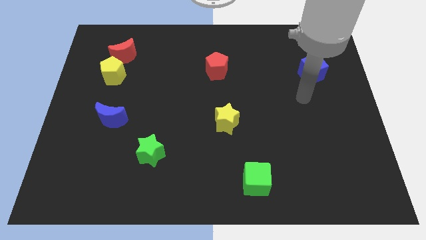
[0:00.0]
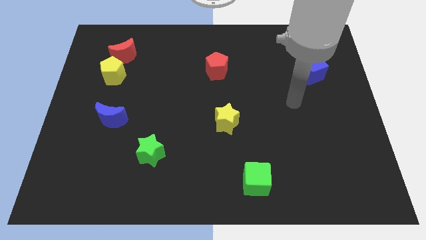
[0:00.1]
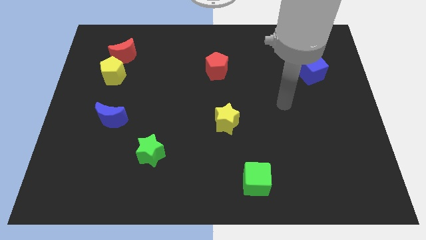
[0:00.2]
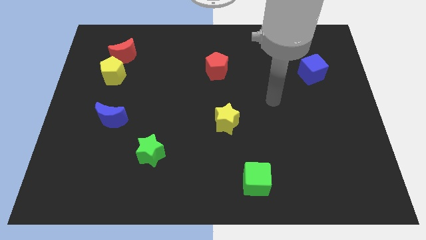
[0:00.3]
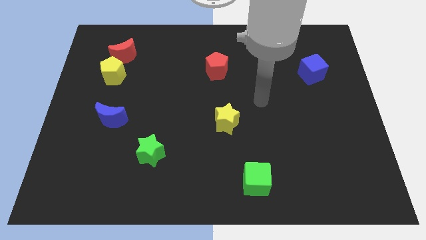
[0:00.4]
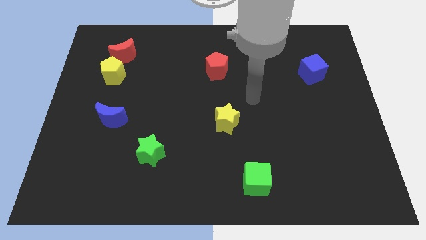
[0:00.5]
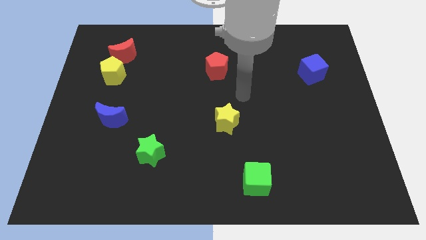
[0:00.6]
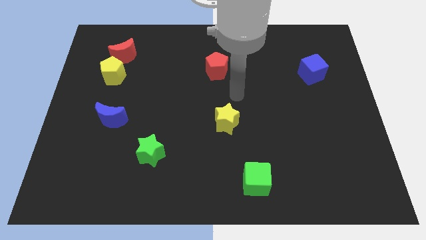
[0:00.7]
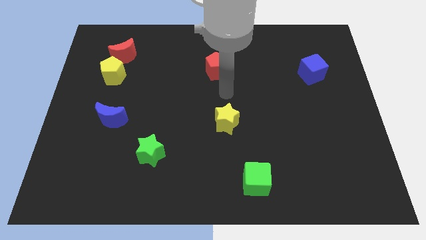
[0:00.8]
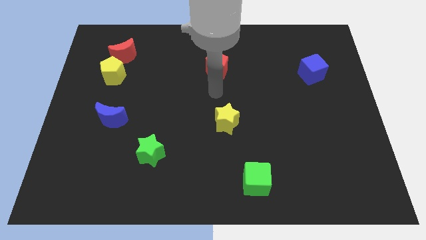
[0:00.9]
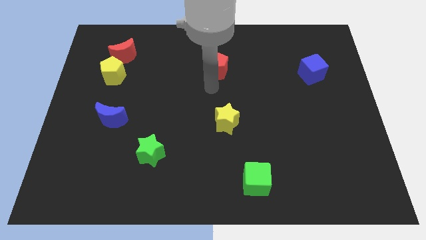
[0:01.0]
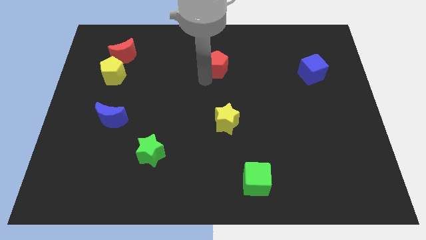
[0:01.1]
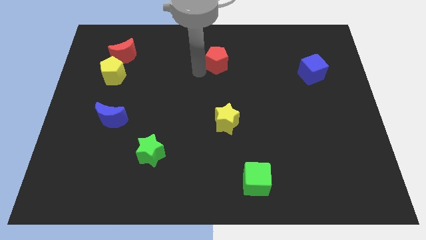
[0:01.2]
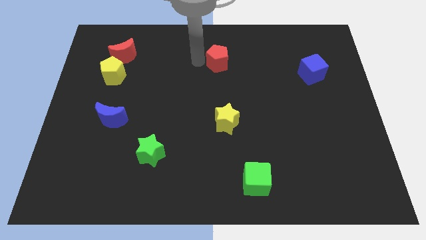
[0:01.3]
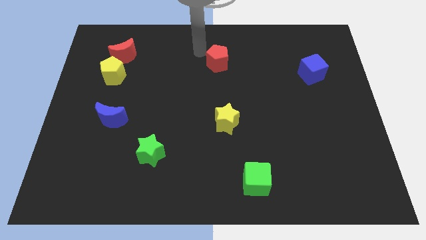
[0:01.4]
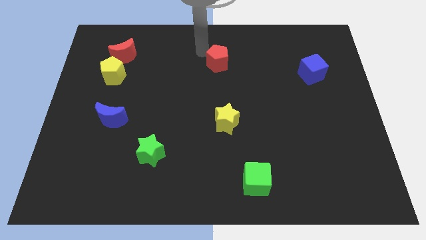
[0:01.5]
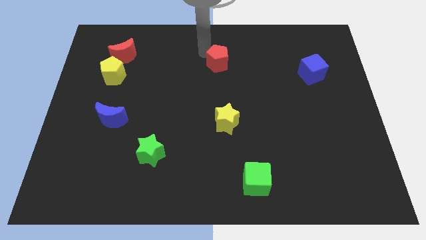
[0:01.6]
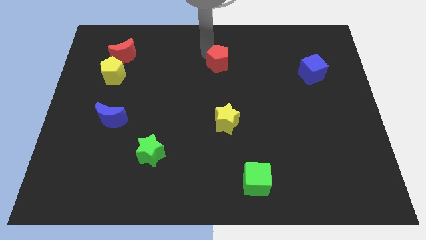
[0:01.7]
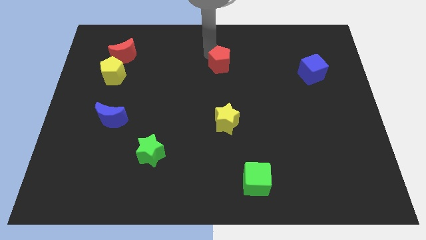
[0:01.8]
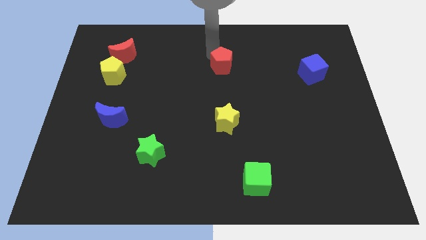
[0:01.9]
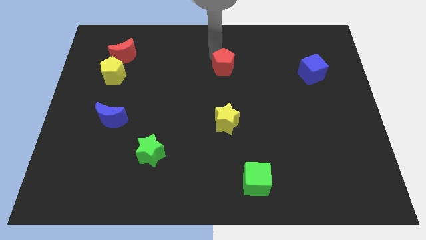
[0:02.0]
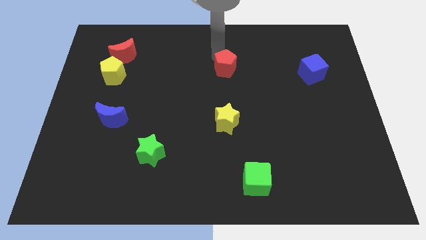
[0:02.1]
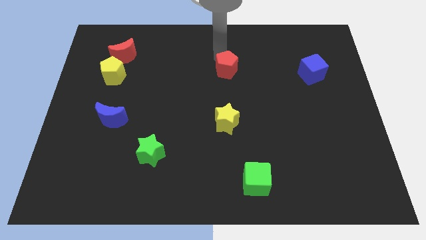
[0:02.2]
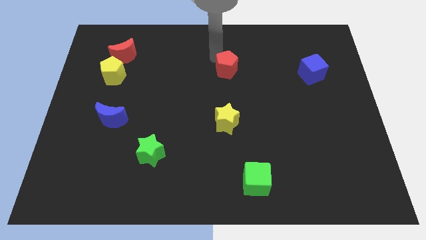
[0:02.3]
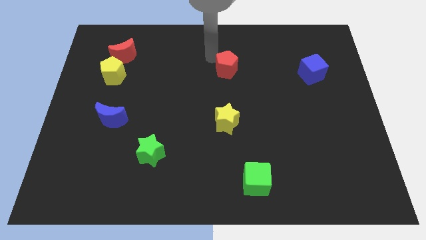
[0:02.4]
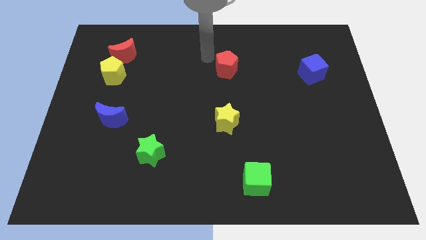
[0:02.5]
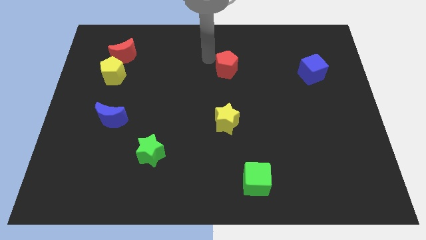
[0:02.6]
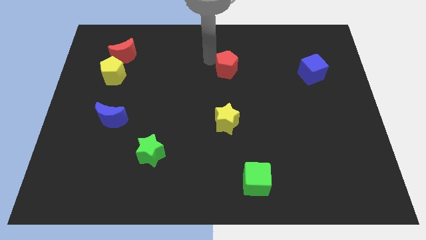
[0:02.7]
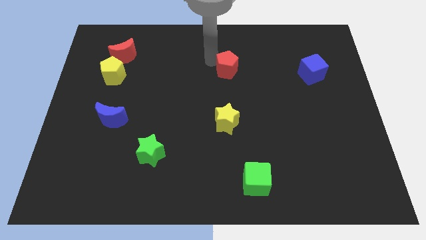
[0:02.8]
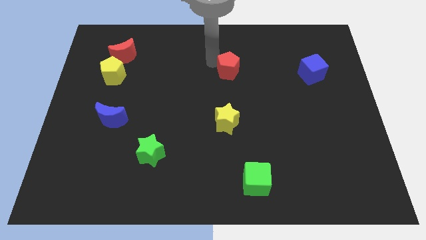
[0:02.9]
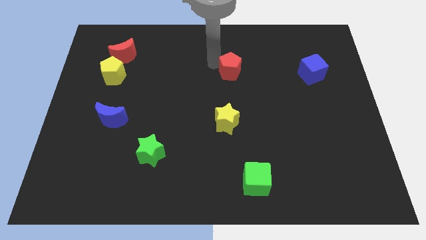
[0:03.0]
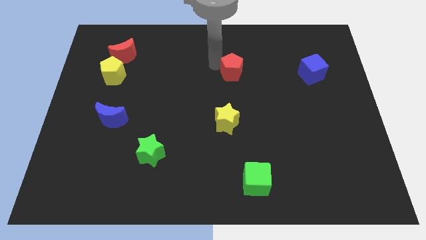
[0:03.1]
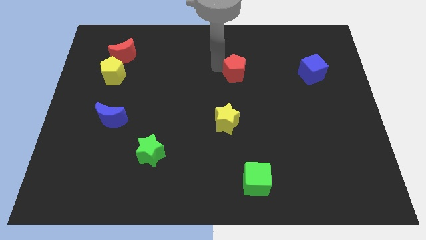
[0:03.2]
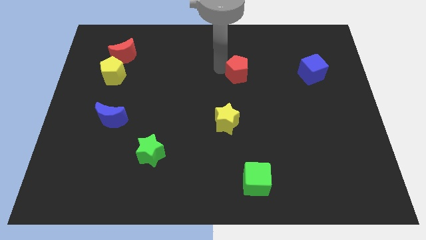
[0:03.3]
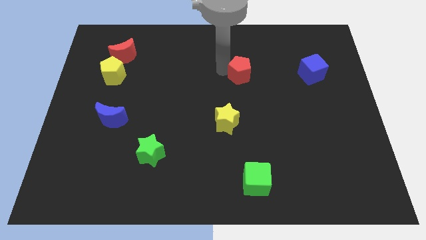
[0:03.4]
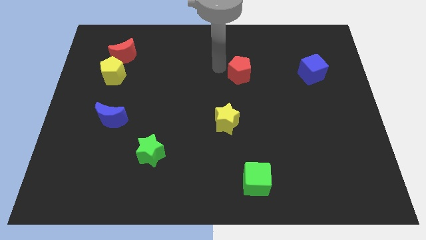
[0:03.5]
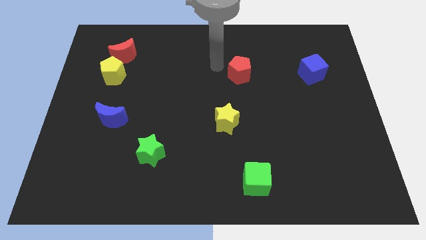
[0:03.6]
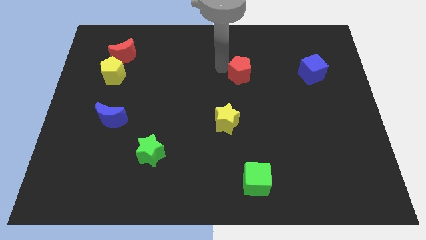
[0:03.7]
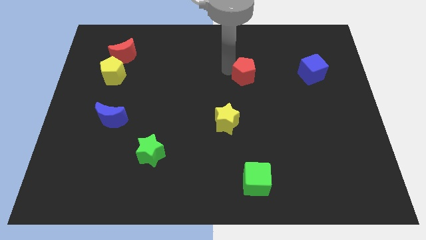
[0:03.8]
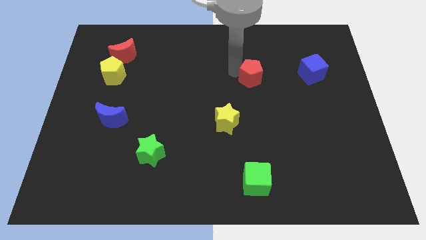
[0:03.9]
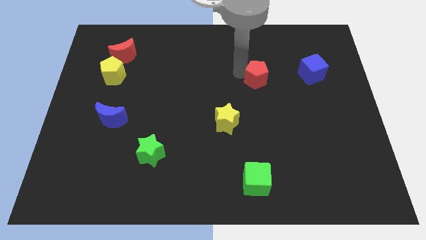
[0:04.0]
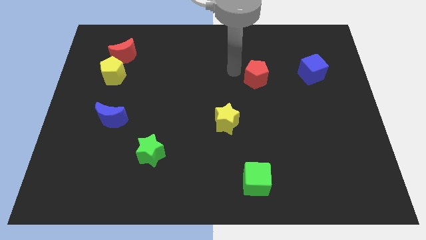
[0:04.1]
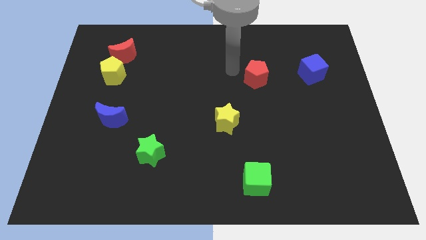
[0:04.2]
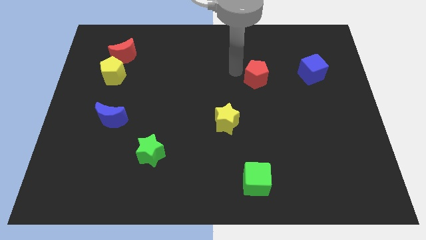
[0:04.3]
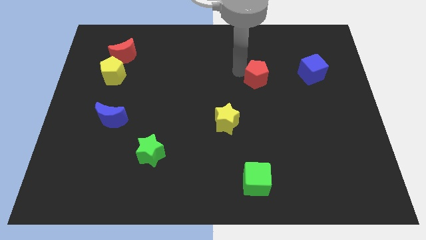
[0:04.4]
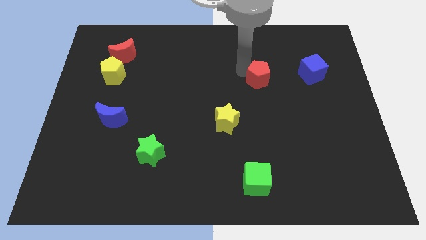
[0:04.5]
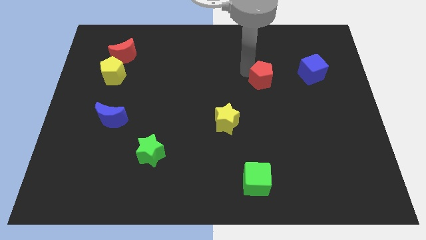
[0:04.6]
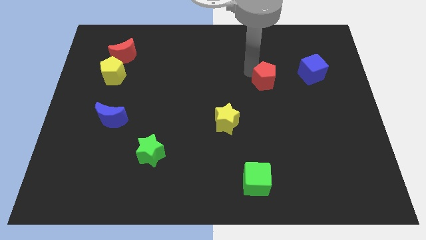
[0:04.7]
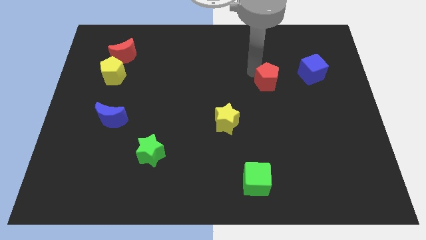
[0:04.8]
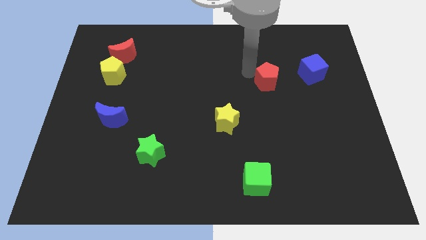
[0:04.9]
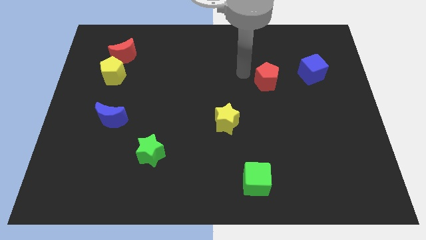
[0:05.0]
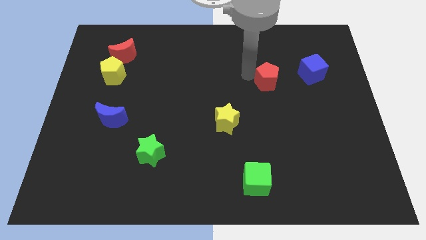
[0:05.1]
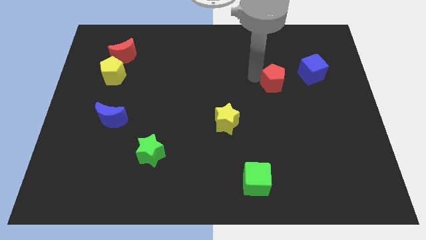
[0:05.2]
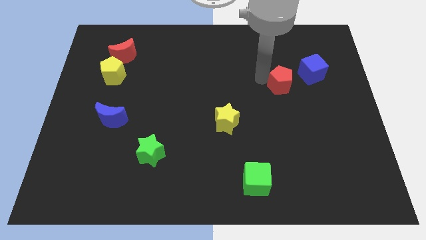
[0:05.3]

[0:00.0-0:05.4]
move the red pentagon to the bottom left side of the blue cube

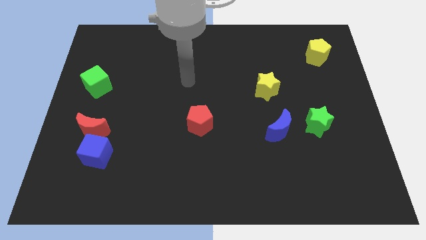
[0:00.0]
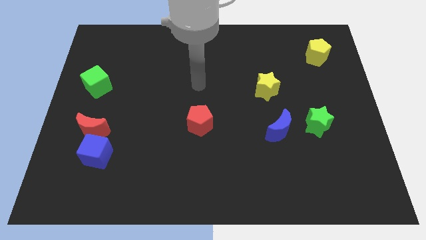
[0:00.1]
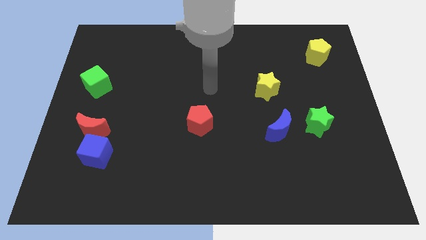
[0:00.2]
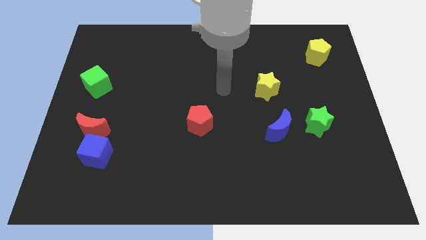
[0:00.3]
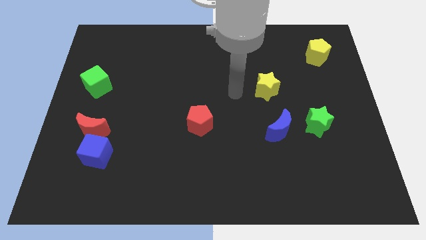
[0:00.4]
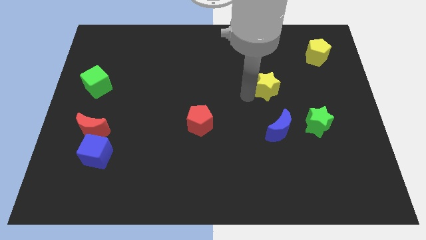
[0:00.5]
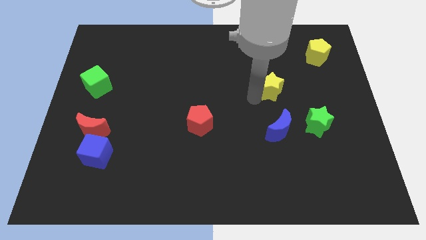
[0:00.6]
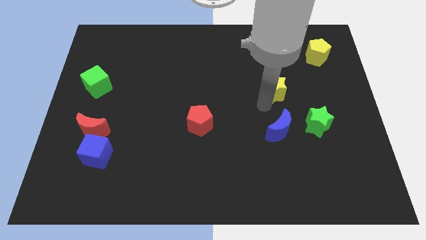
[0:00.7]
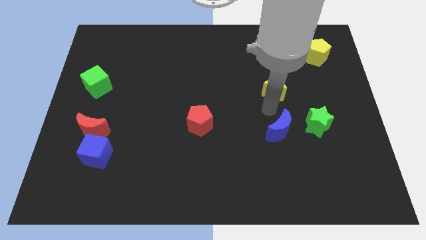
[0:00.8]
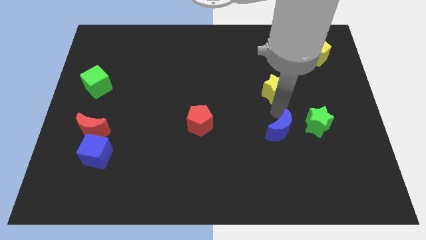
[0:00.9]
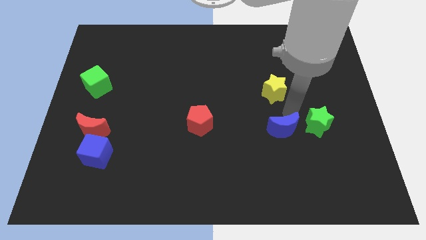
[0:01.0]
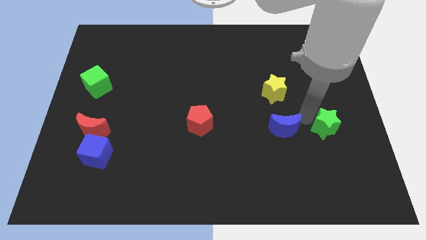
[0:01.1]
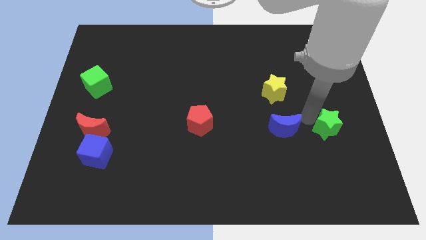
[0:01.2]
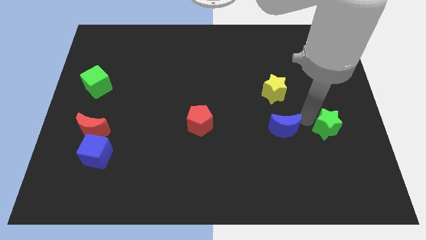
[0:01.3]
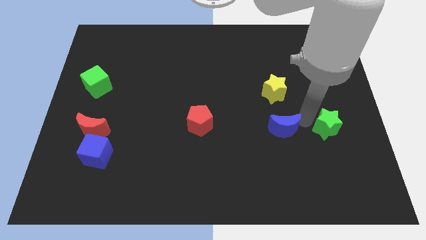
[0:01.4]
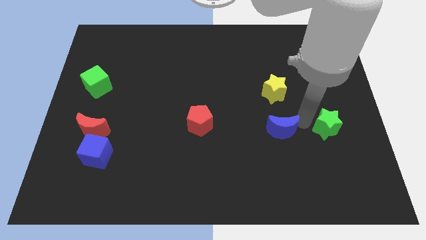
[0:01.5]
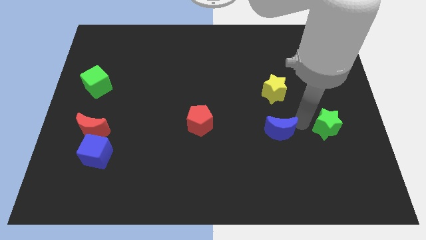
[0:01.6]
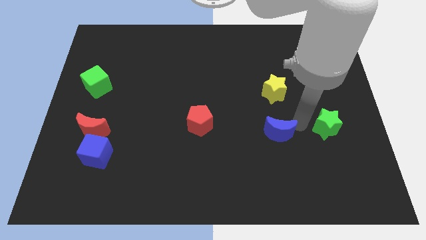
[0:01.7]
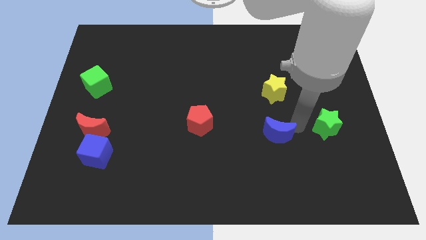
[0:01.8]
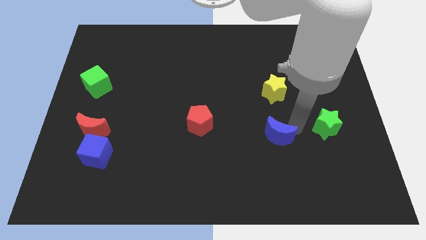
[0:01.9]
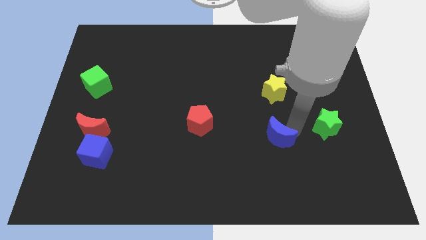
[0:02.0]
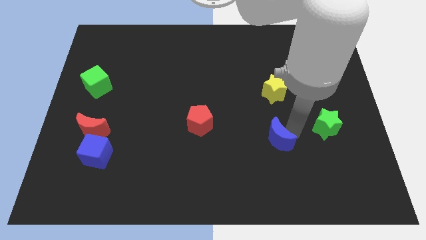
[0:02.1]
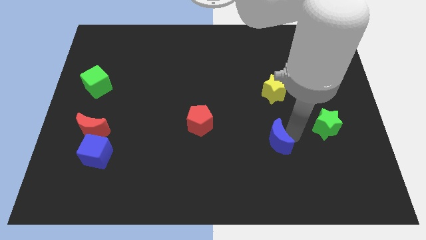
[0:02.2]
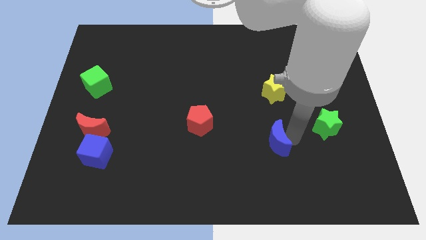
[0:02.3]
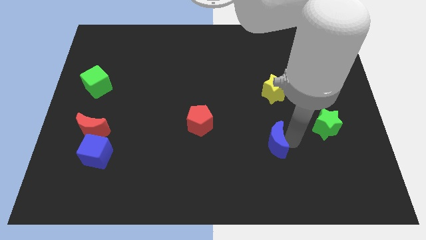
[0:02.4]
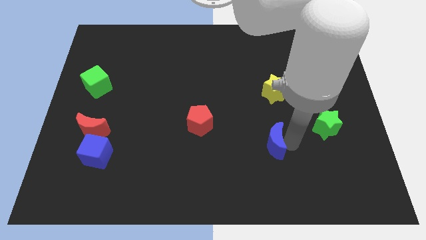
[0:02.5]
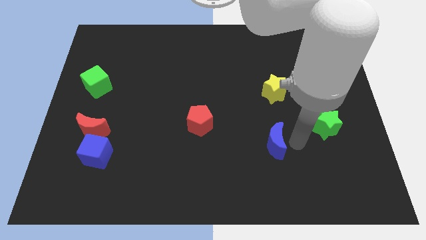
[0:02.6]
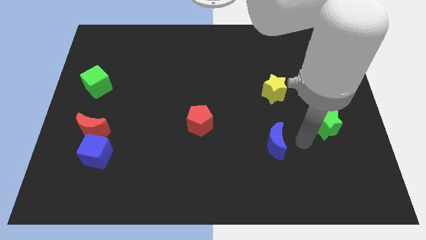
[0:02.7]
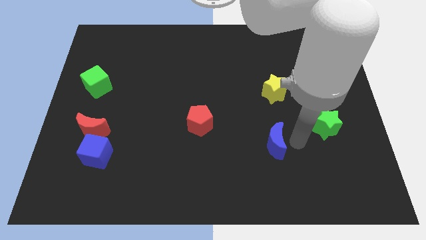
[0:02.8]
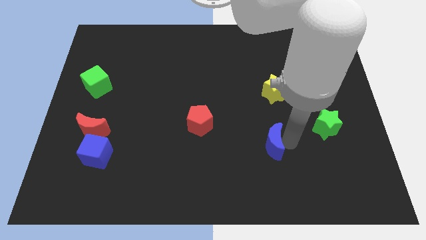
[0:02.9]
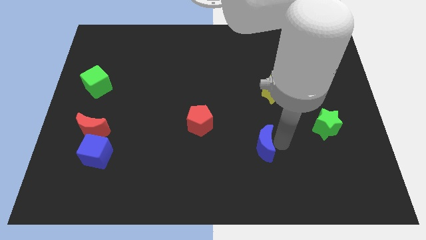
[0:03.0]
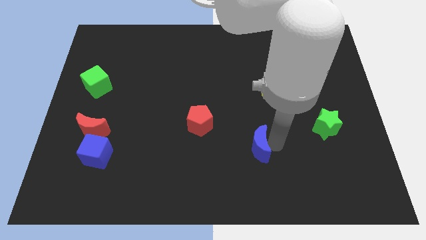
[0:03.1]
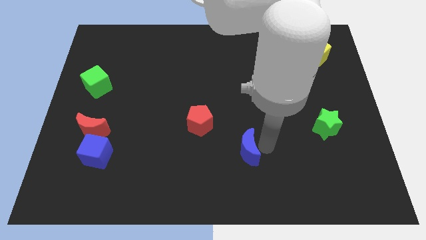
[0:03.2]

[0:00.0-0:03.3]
push the blue moon to the bottom right of the red pentagon

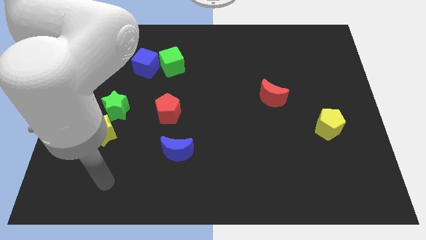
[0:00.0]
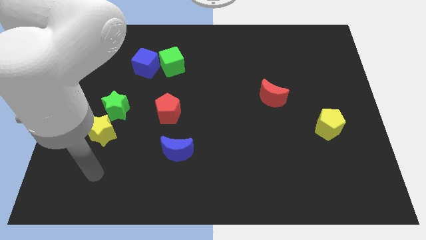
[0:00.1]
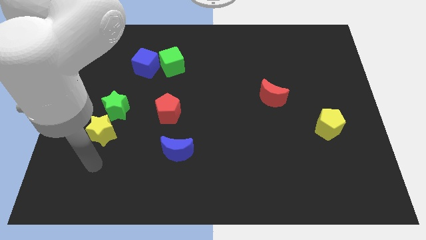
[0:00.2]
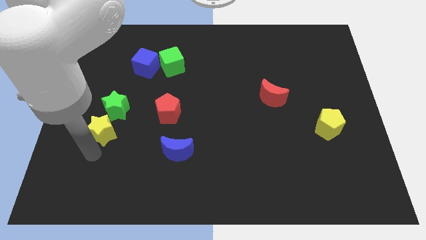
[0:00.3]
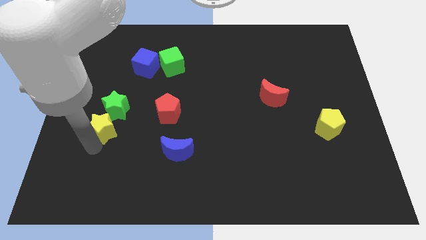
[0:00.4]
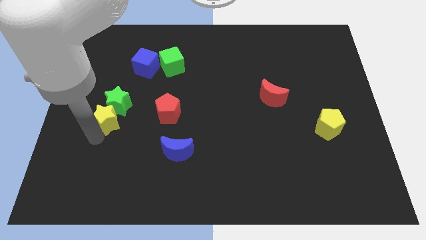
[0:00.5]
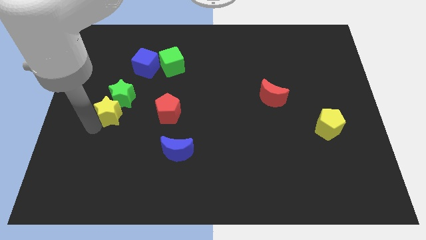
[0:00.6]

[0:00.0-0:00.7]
push the green star to the bottom of the blue cube
